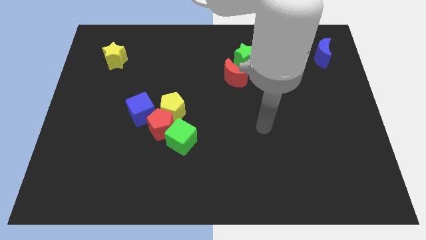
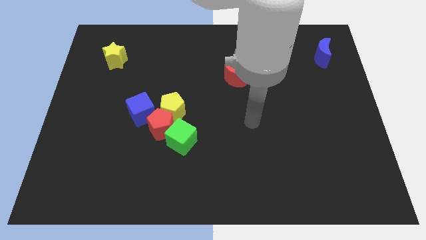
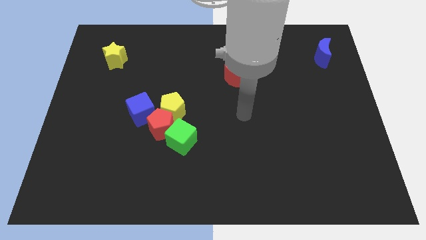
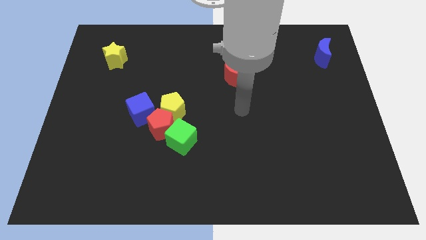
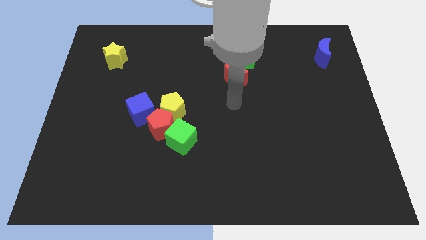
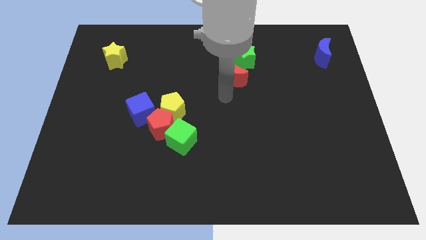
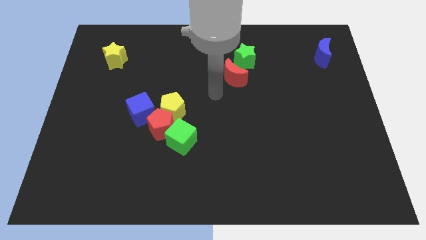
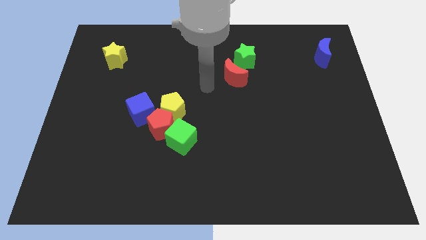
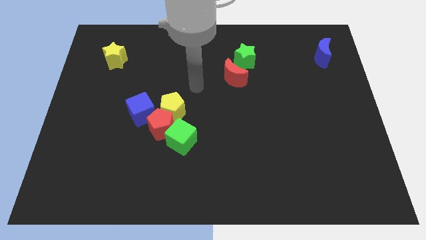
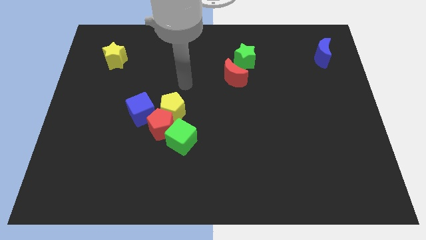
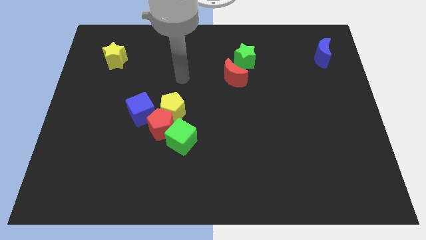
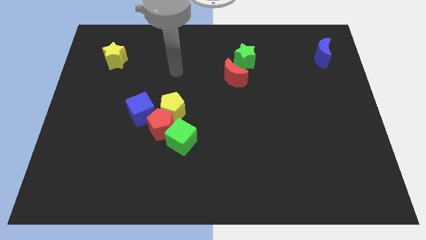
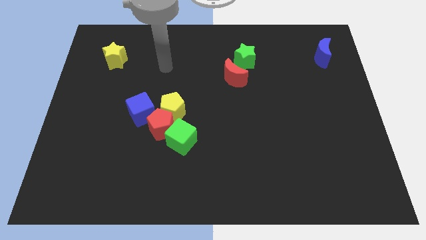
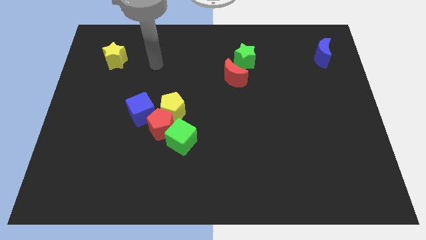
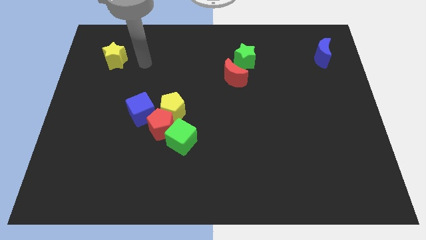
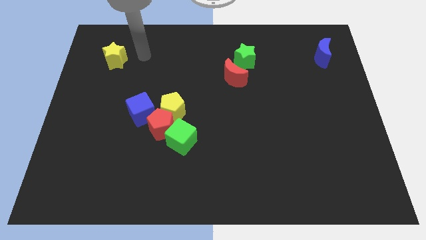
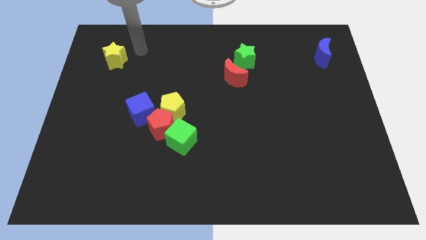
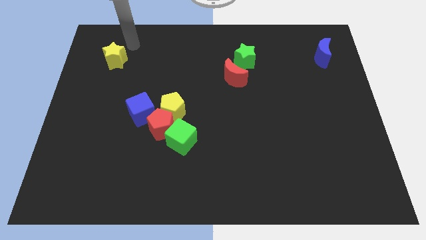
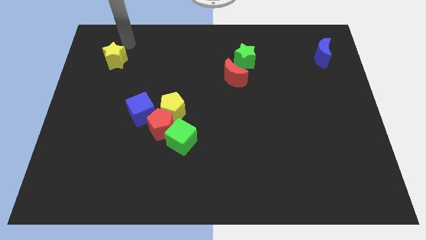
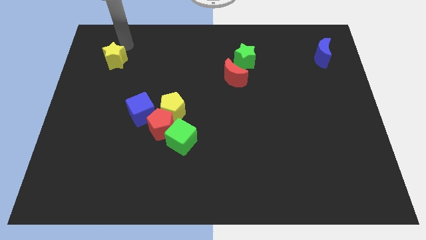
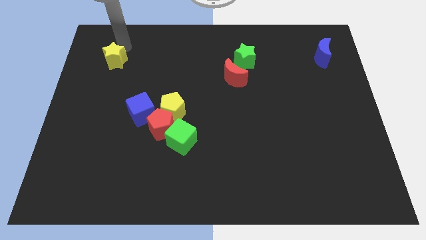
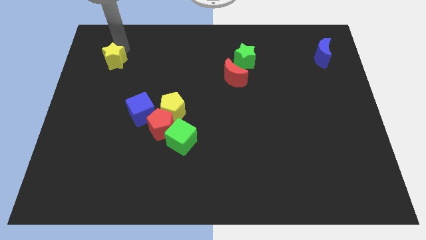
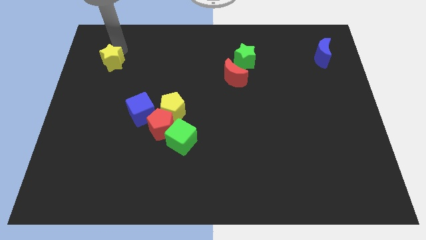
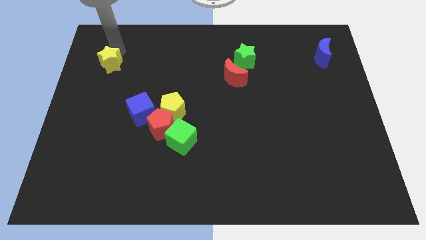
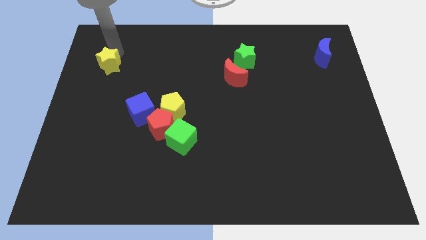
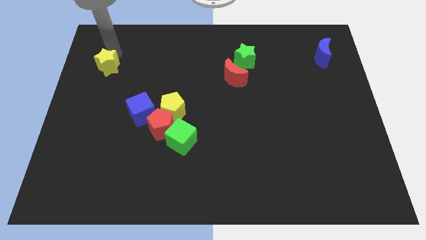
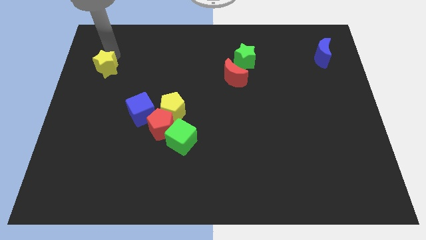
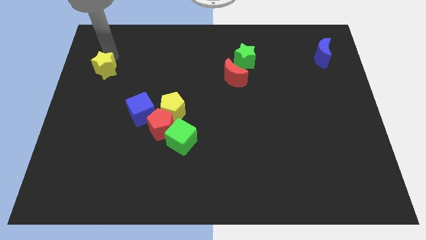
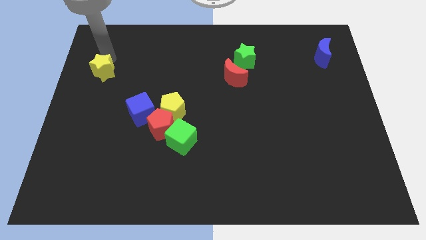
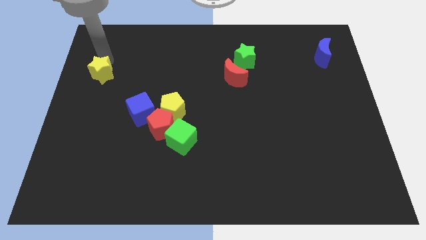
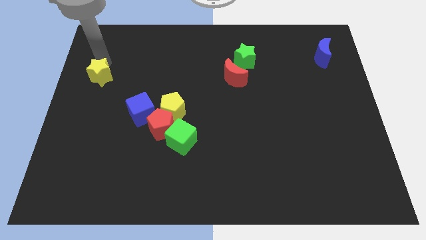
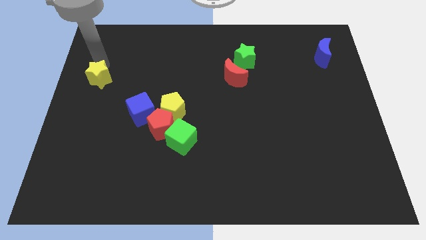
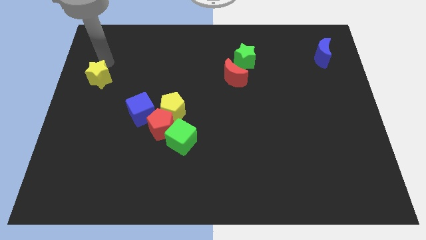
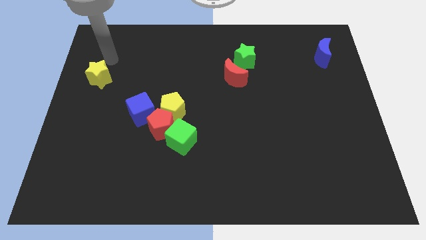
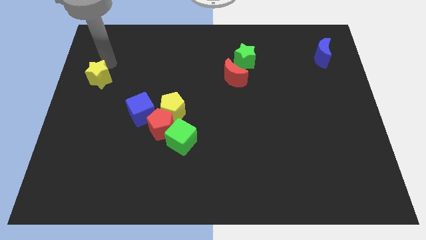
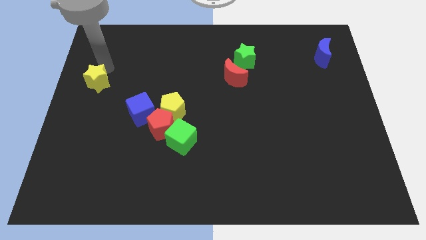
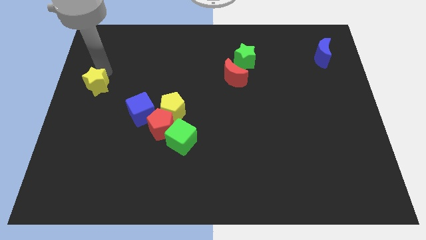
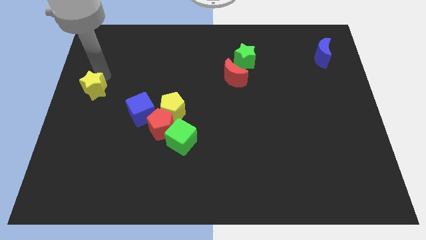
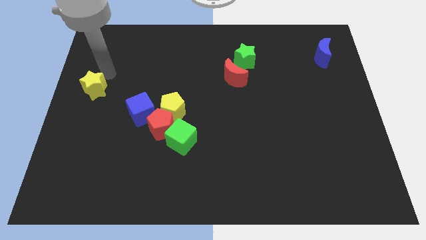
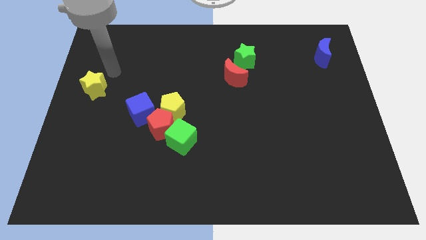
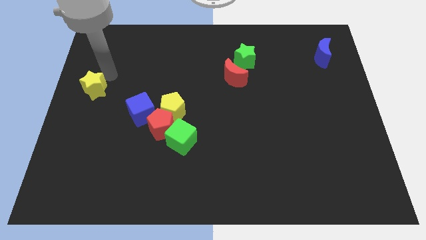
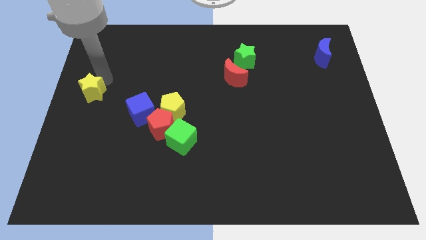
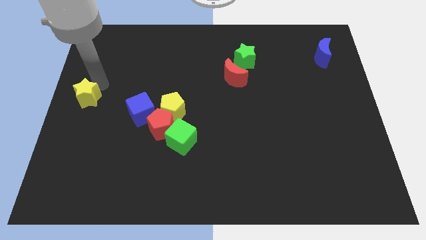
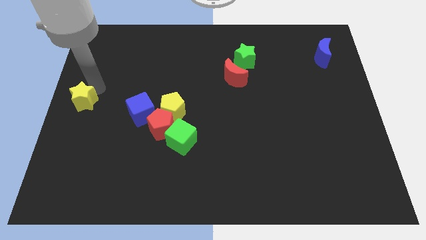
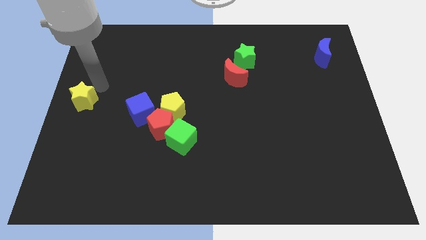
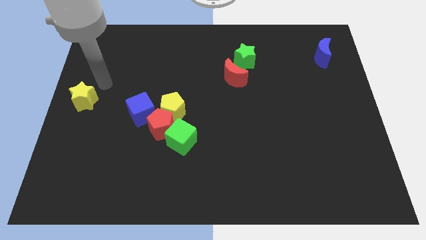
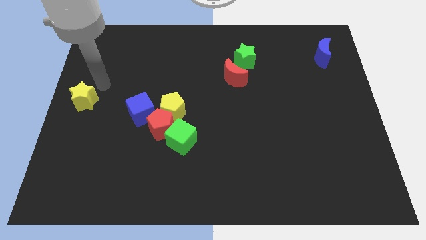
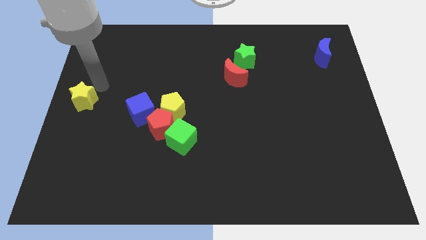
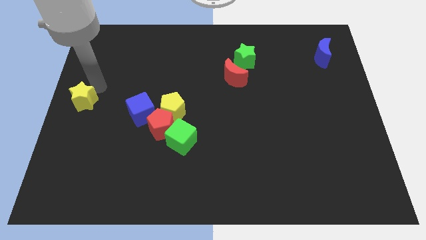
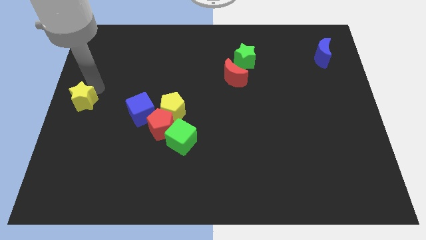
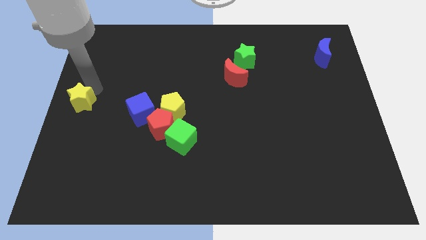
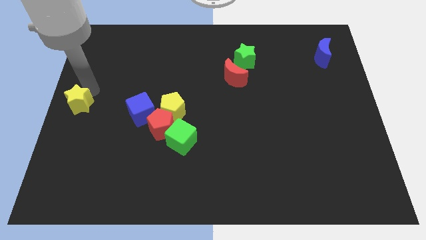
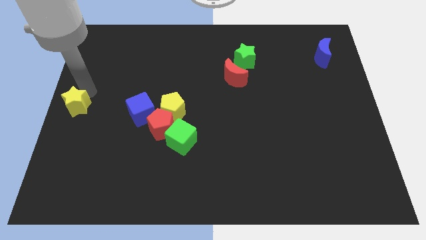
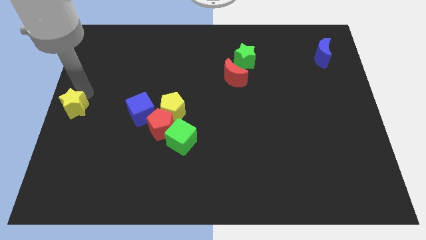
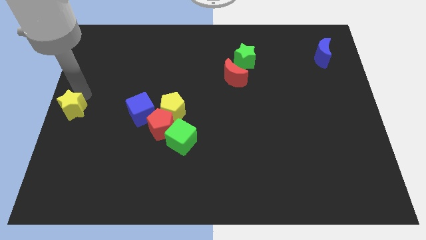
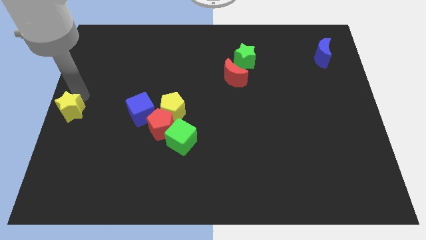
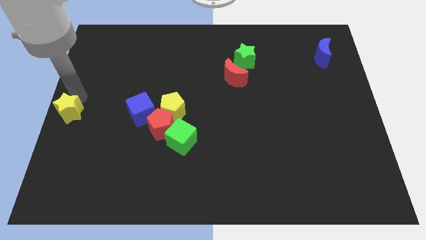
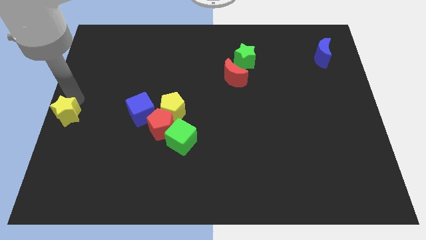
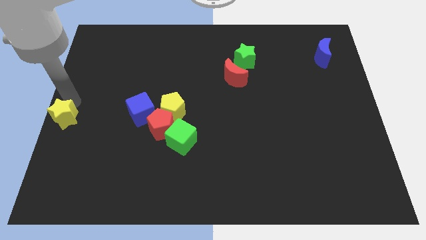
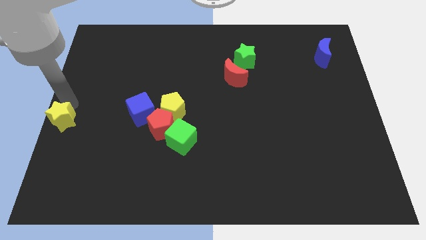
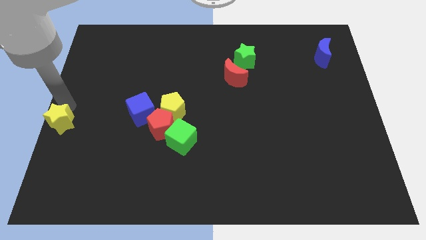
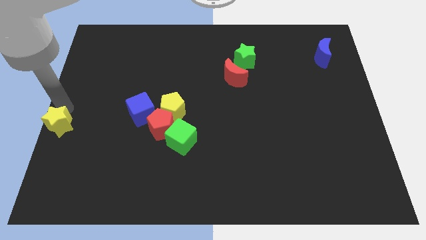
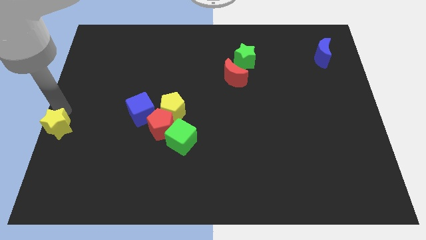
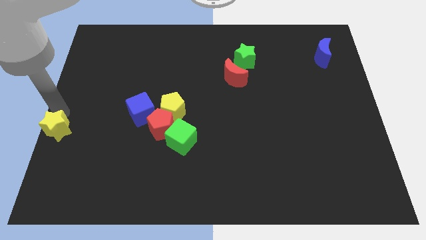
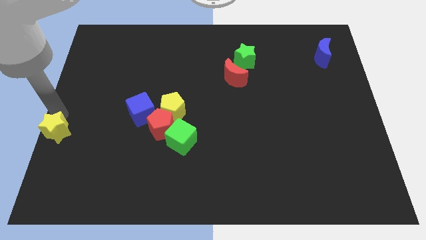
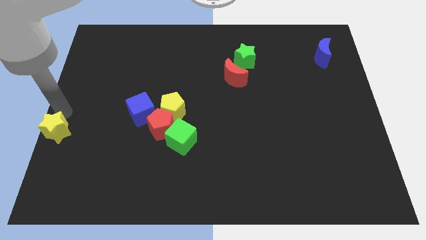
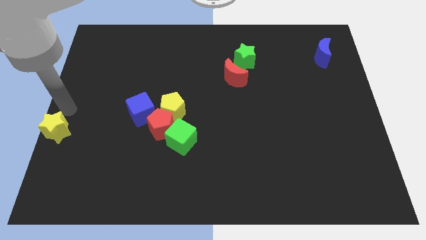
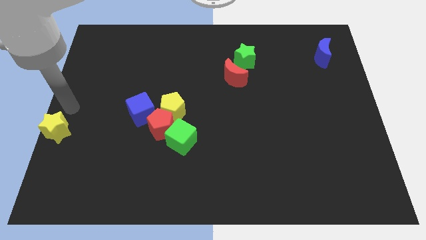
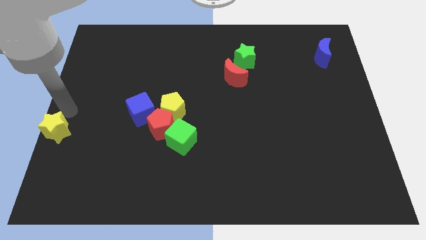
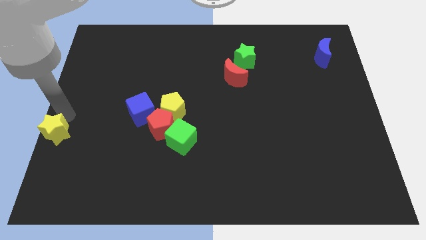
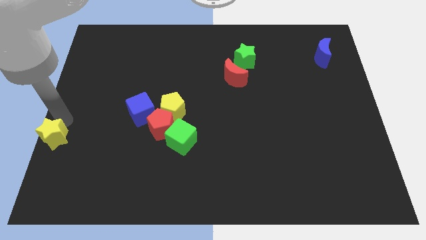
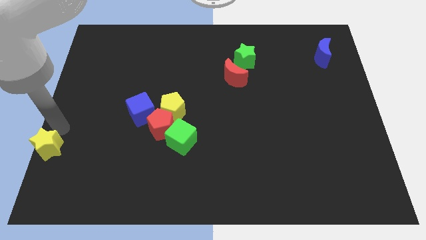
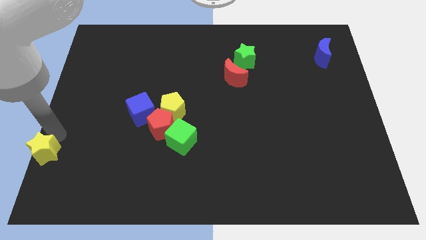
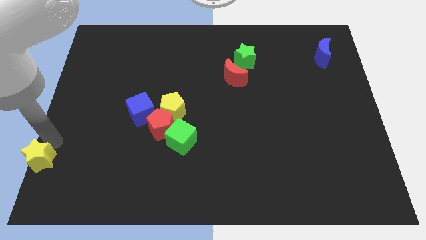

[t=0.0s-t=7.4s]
slide the yellow star to the bottom left of the board
